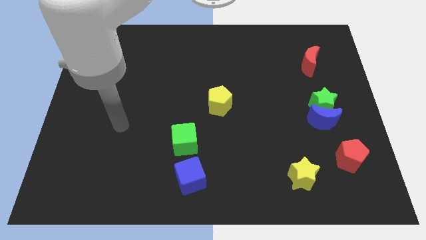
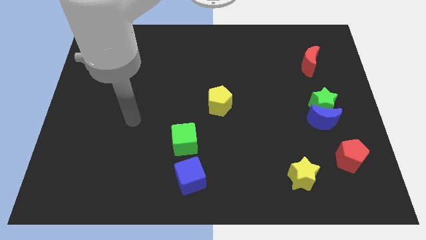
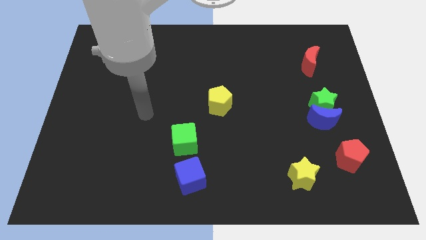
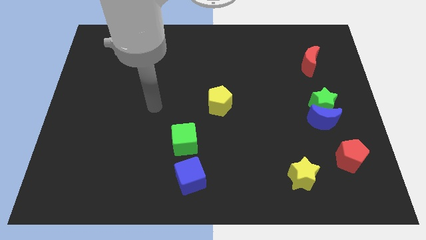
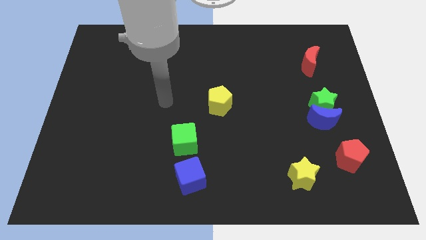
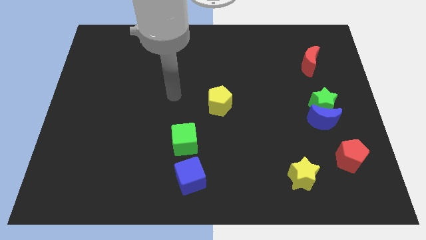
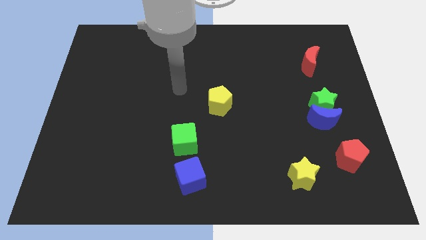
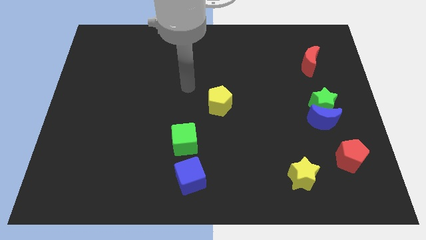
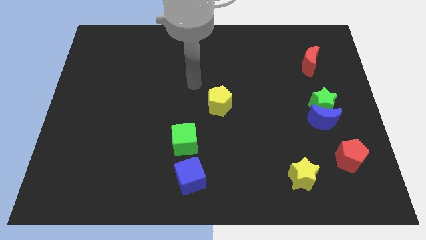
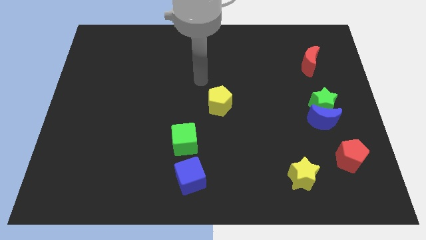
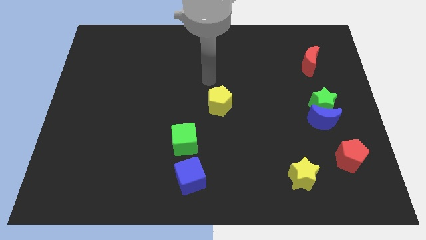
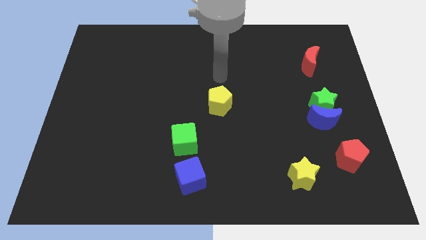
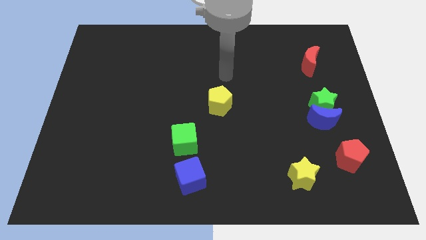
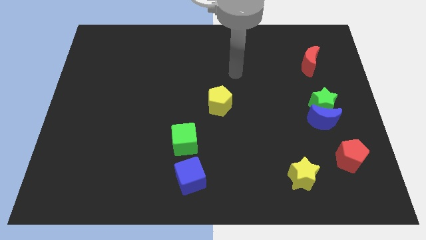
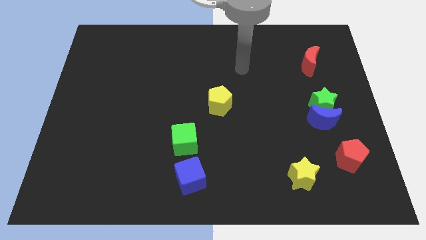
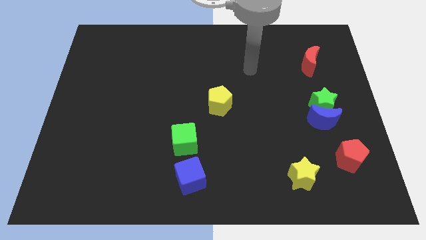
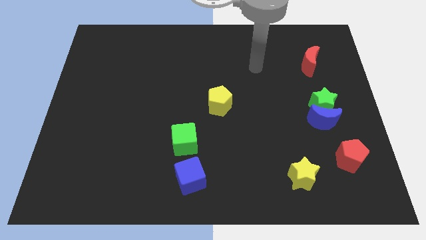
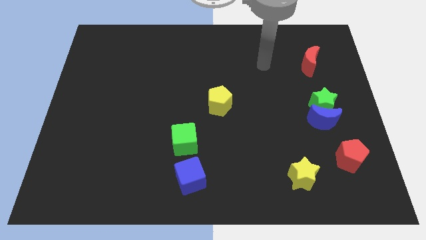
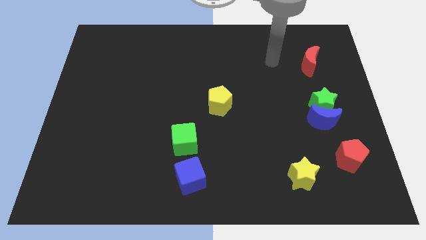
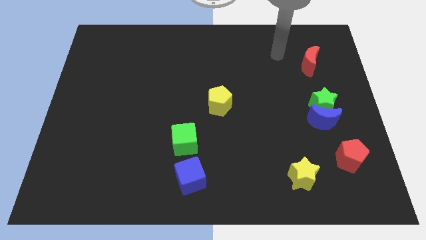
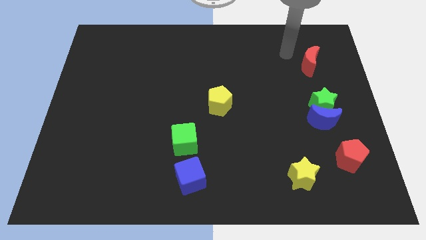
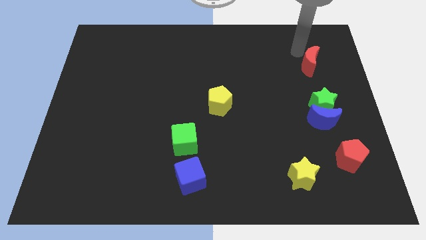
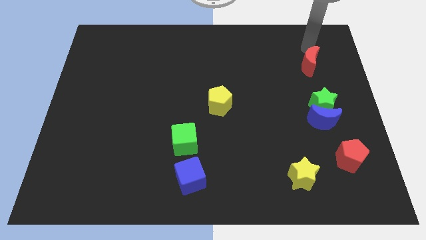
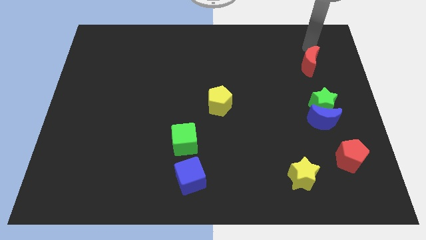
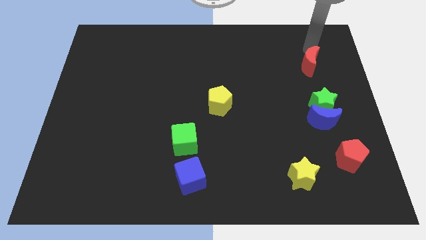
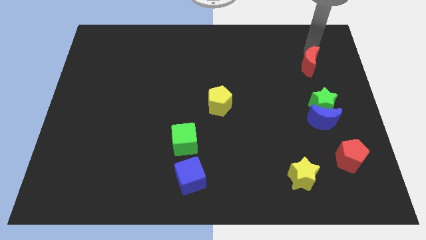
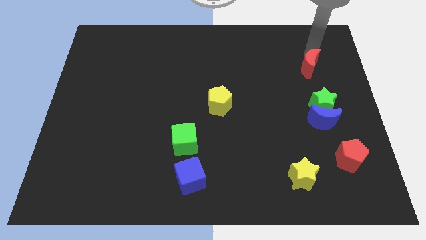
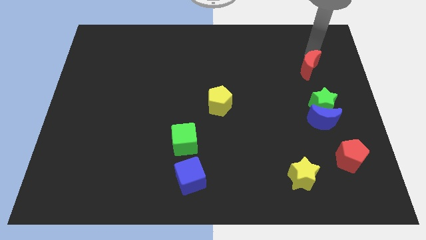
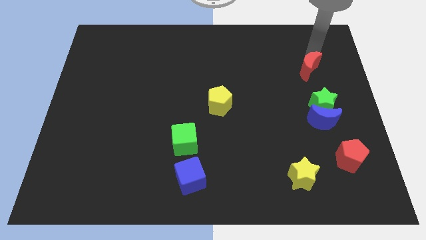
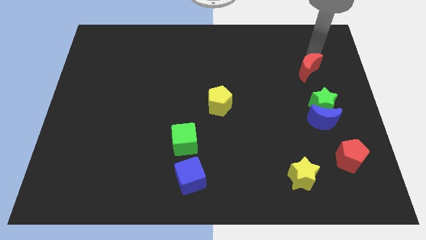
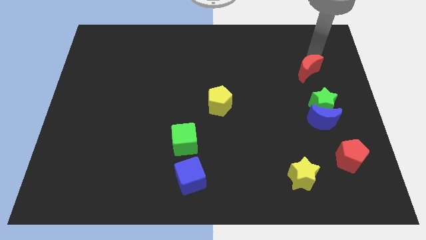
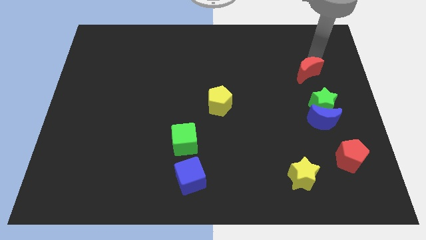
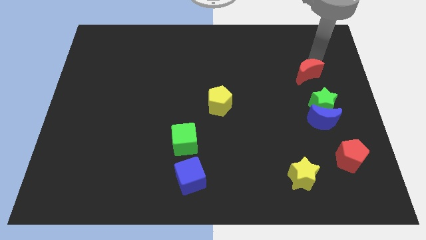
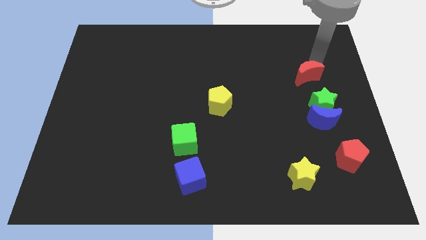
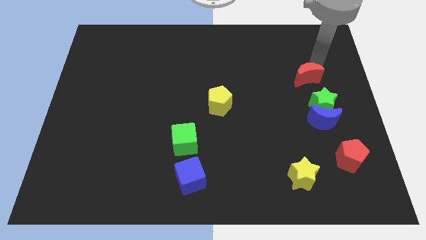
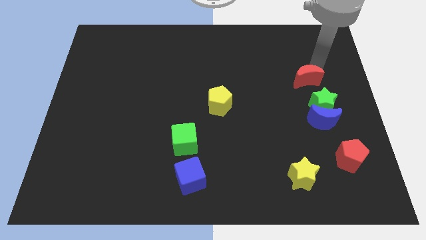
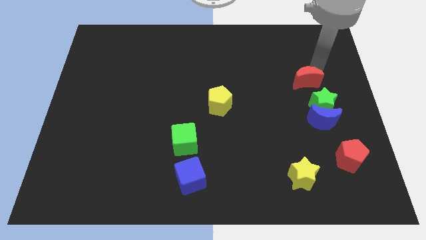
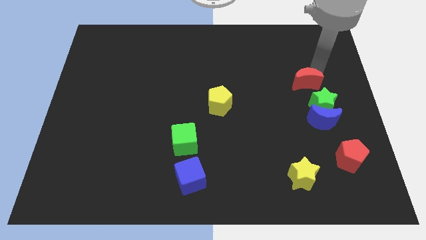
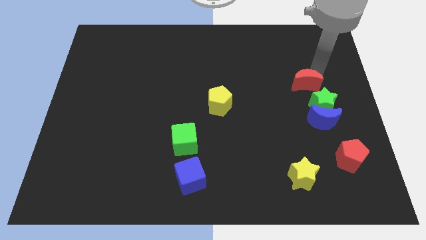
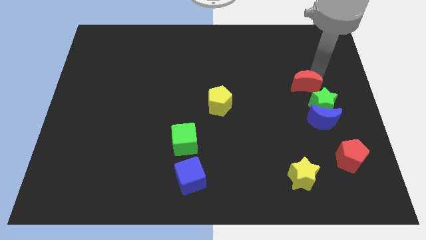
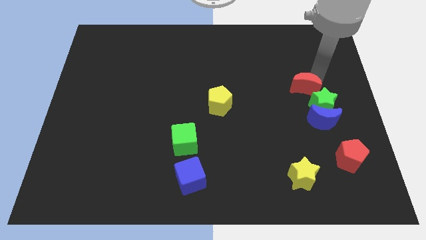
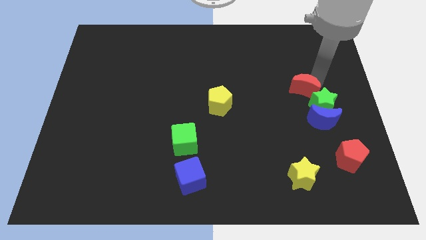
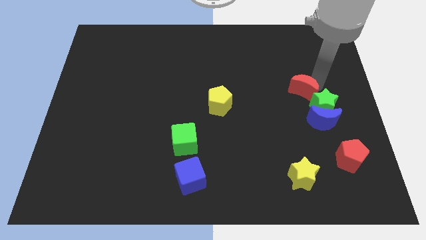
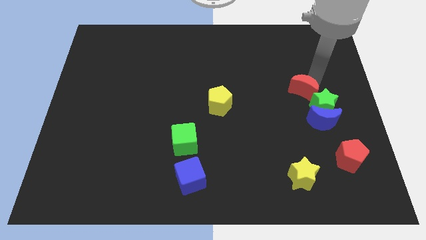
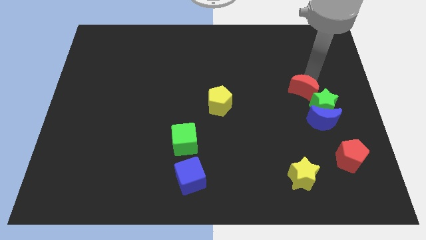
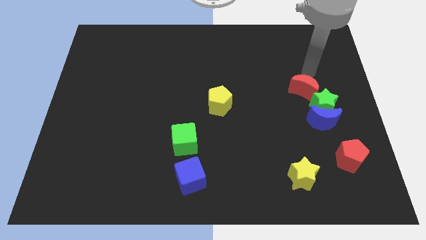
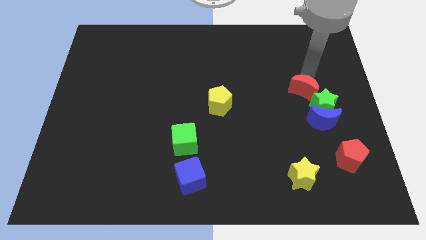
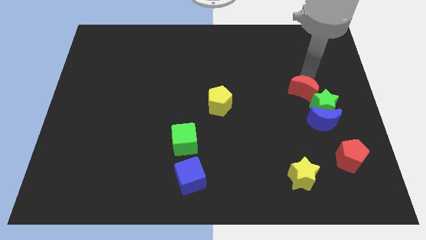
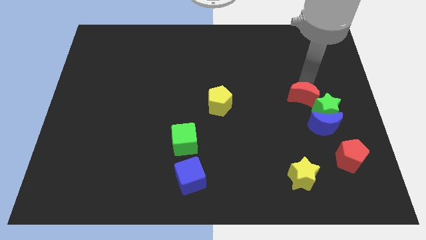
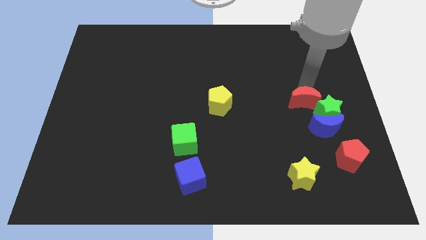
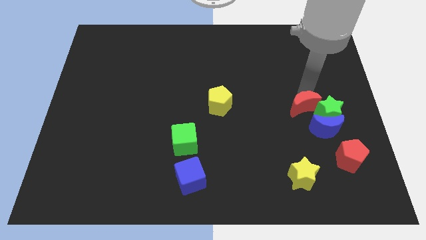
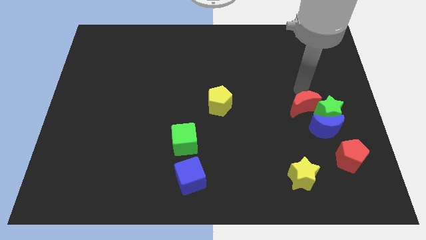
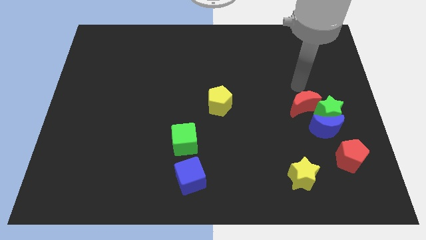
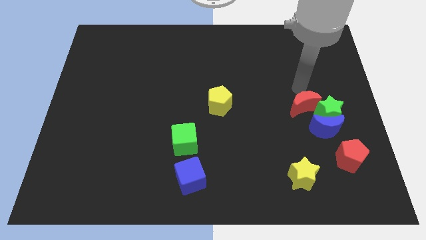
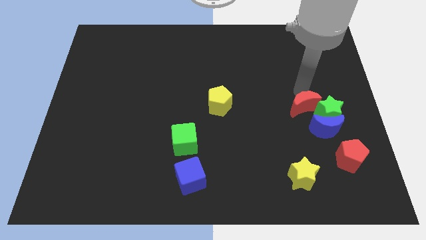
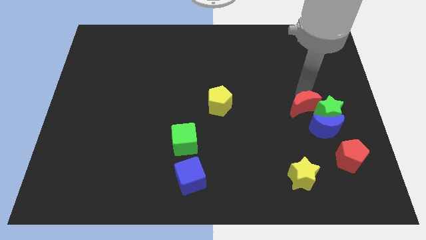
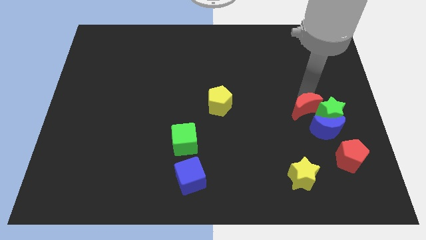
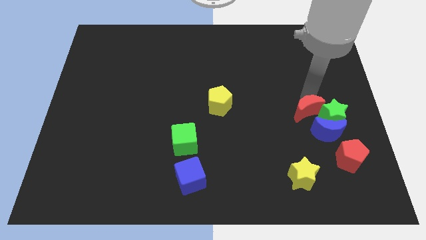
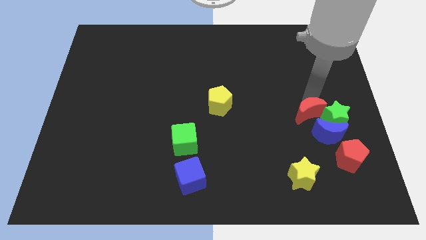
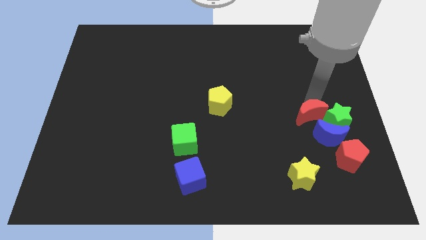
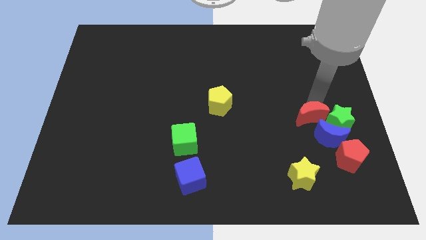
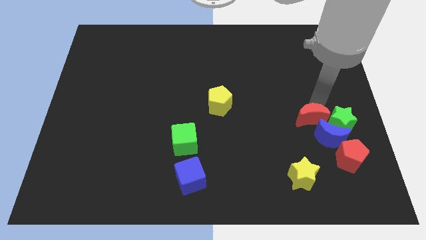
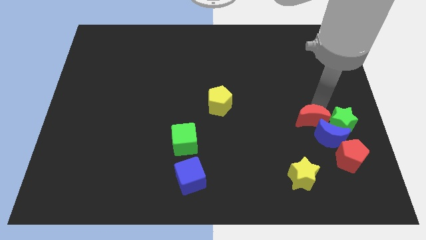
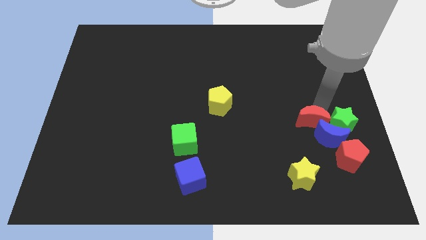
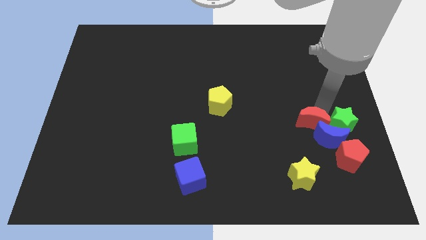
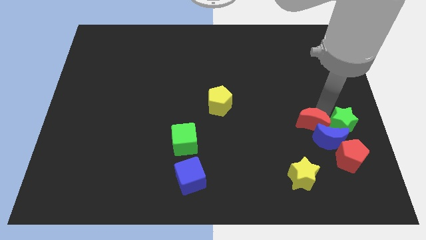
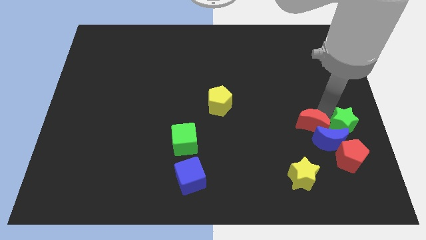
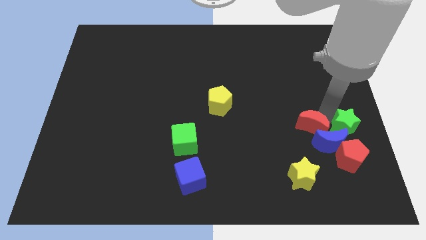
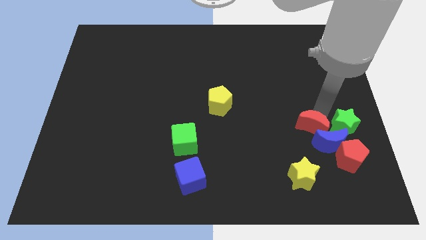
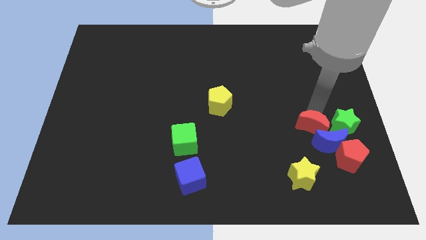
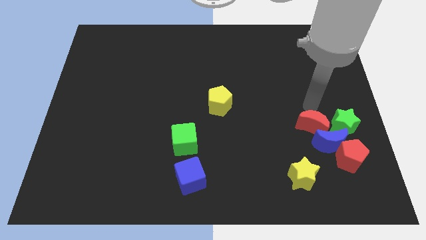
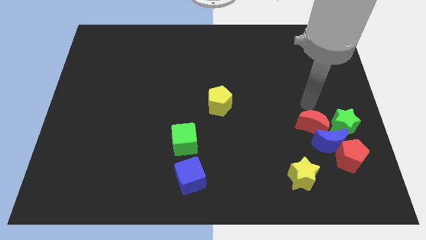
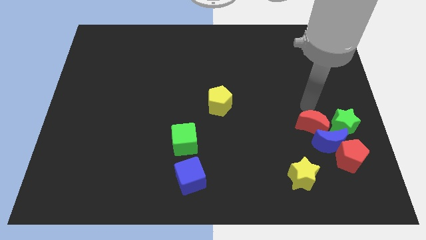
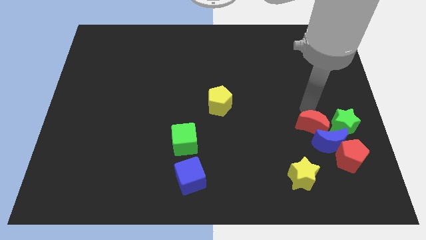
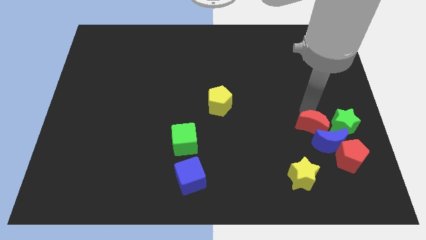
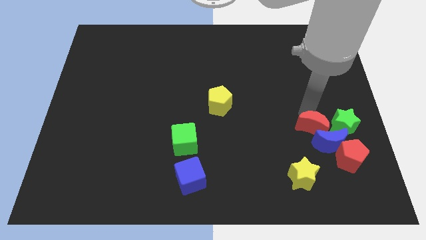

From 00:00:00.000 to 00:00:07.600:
push the red moon down

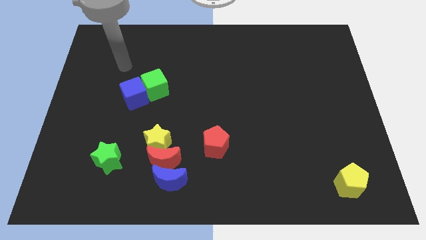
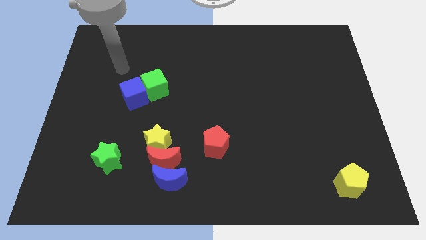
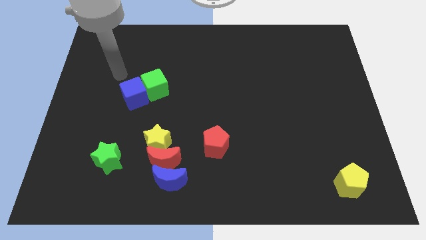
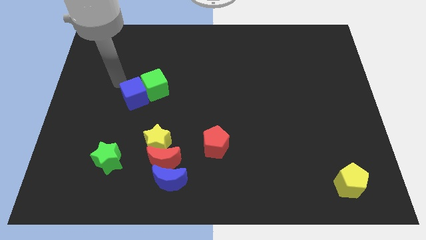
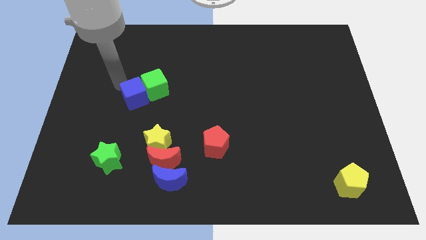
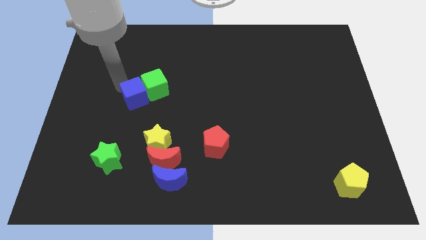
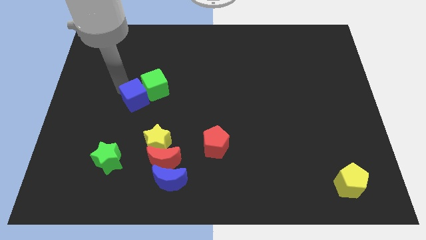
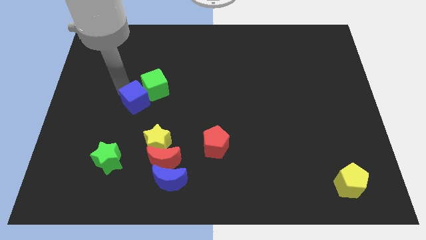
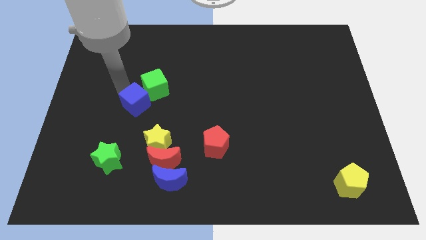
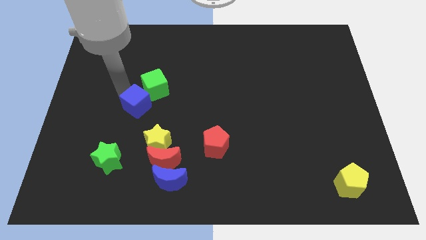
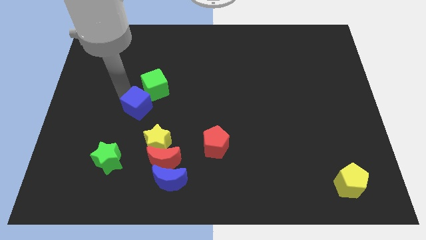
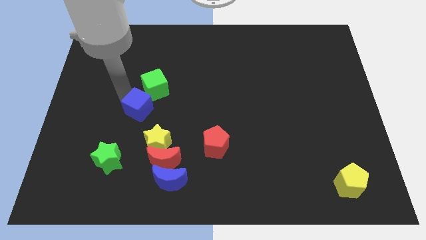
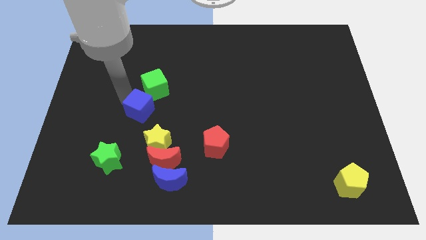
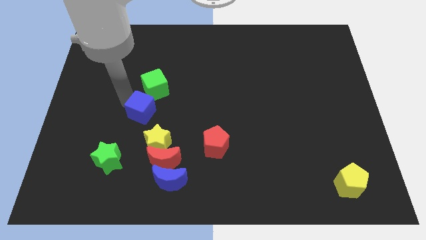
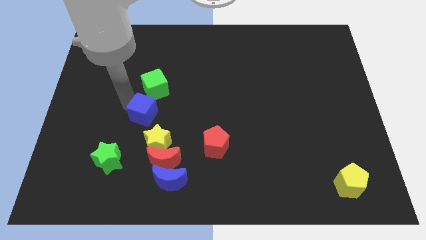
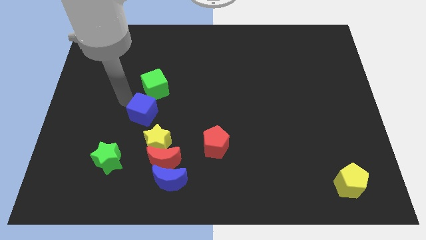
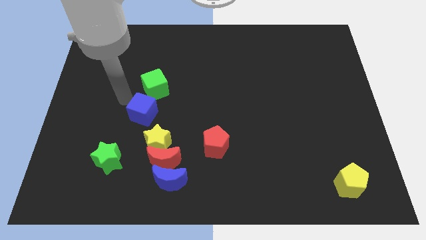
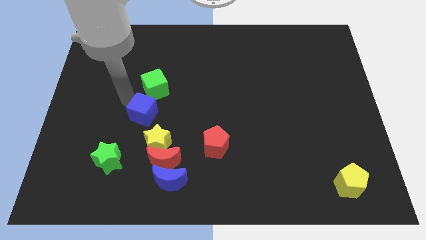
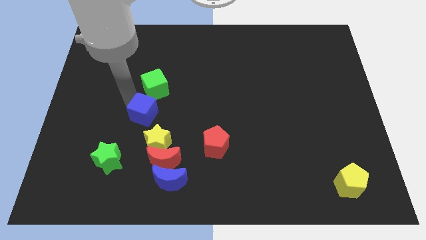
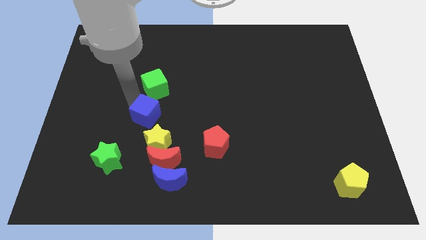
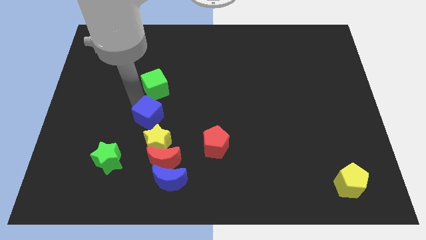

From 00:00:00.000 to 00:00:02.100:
move the blue cube somewhat down and to the right diagonally
